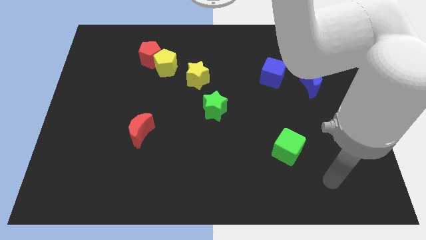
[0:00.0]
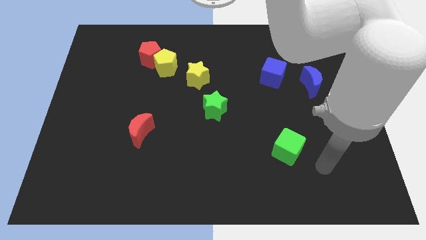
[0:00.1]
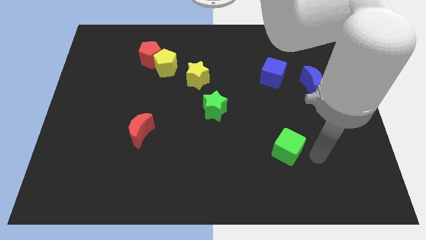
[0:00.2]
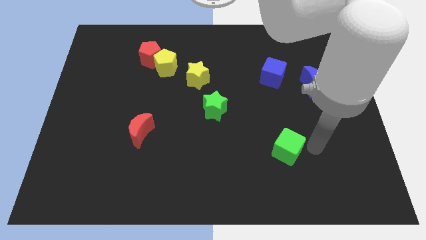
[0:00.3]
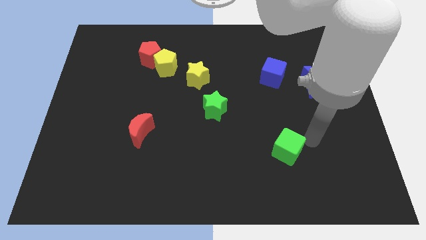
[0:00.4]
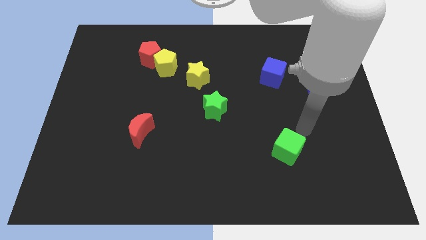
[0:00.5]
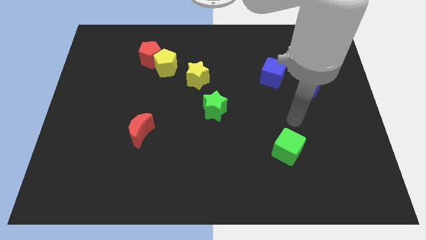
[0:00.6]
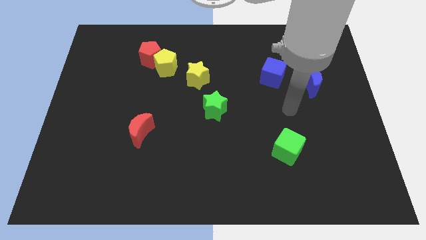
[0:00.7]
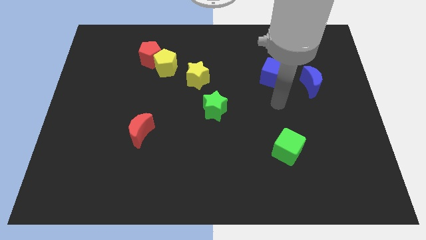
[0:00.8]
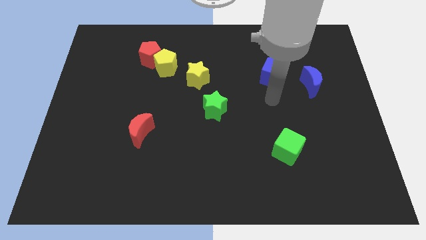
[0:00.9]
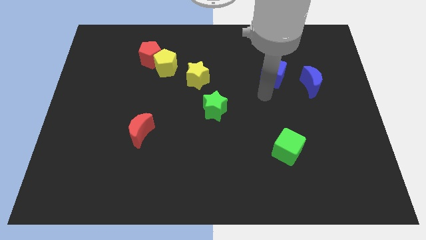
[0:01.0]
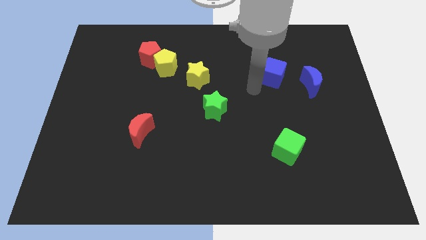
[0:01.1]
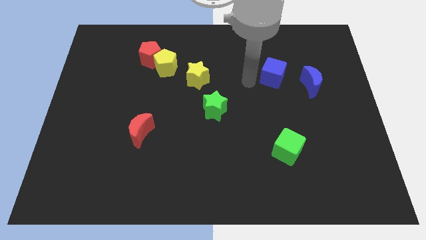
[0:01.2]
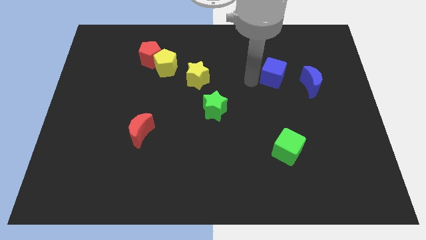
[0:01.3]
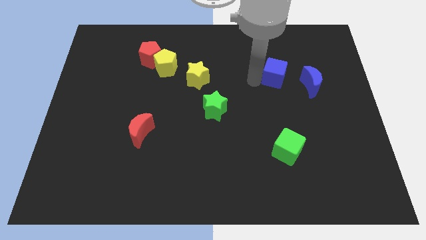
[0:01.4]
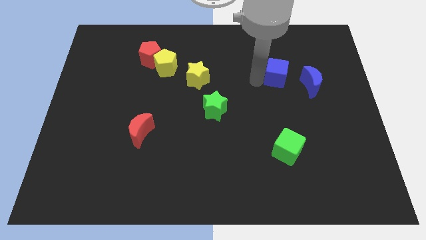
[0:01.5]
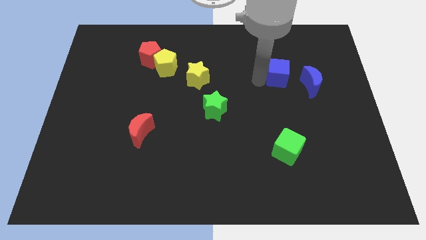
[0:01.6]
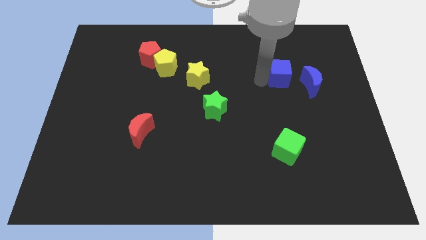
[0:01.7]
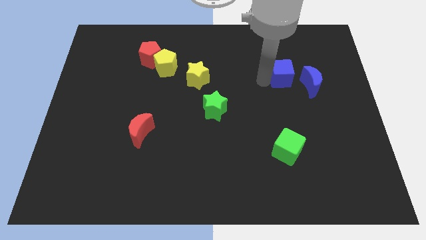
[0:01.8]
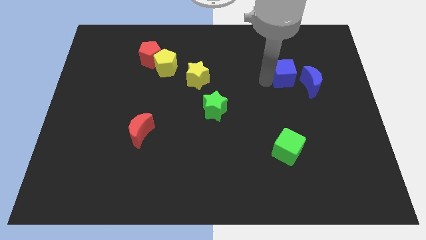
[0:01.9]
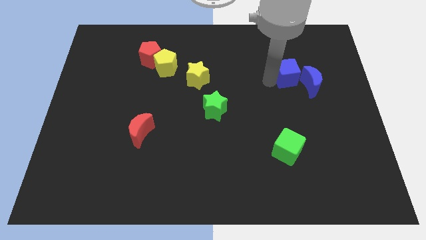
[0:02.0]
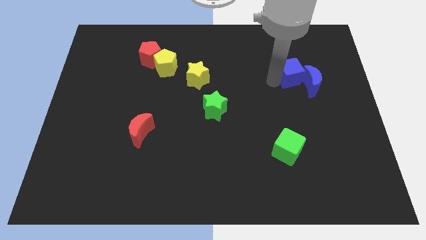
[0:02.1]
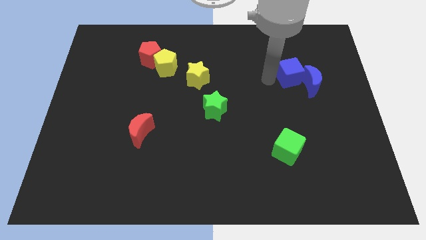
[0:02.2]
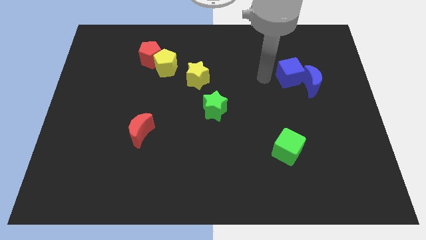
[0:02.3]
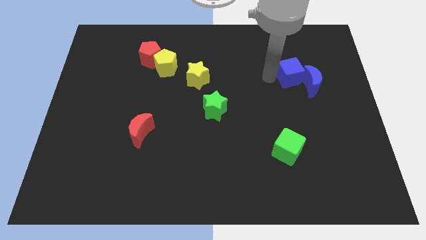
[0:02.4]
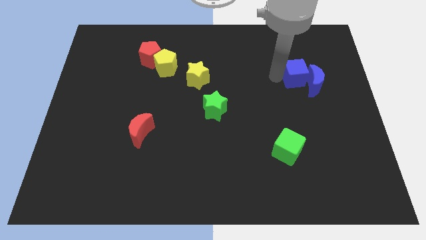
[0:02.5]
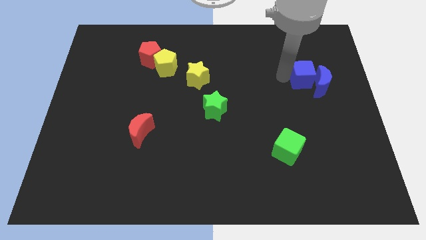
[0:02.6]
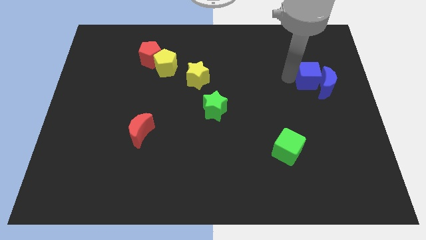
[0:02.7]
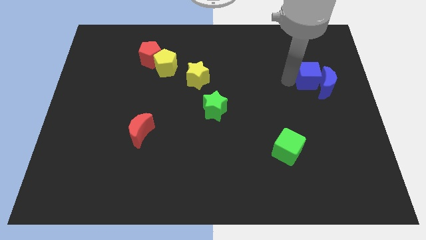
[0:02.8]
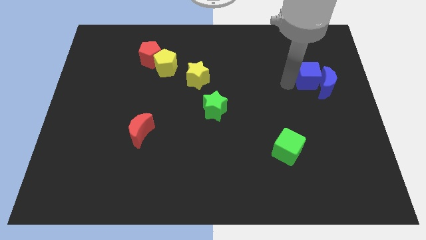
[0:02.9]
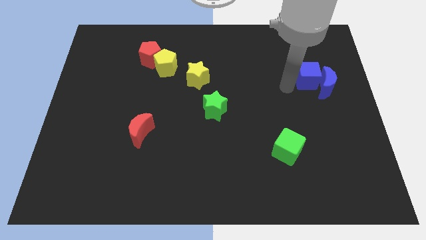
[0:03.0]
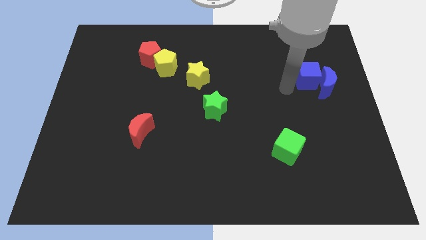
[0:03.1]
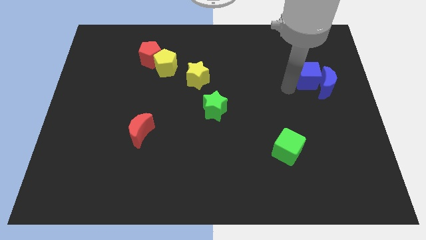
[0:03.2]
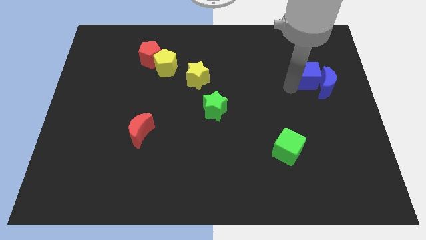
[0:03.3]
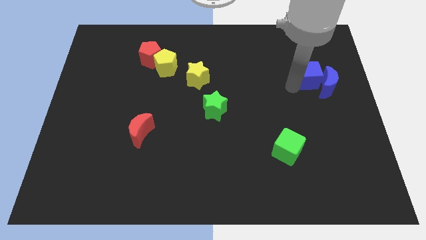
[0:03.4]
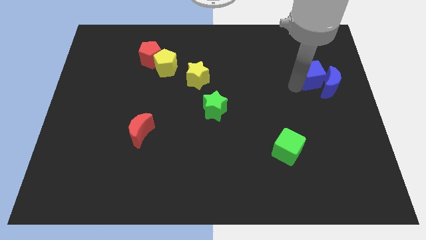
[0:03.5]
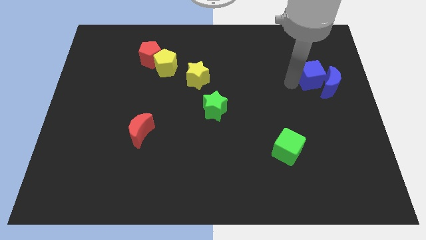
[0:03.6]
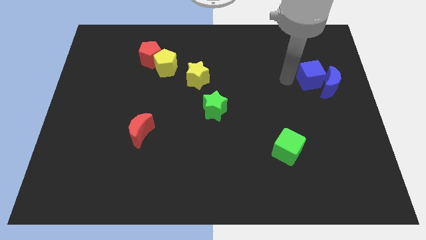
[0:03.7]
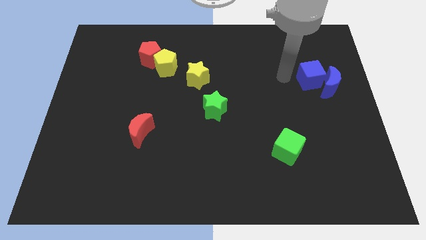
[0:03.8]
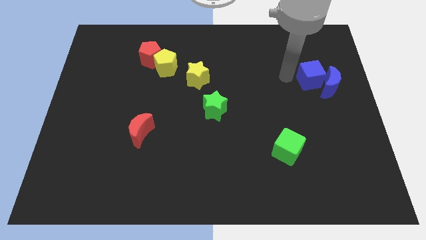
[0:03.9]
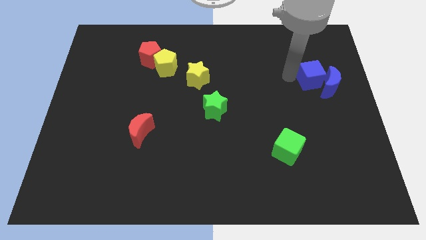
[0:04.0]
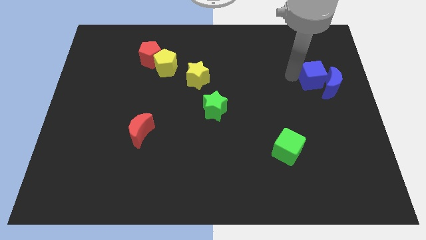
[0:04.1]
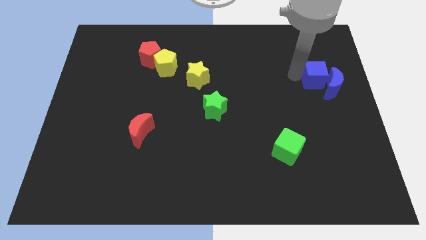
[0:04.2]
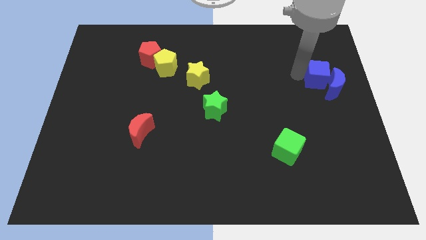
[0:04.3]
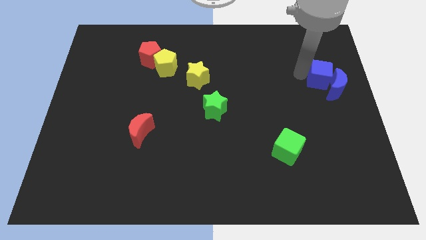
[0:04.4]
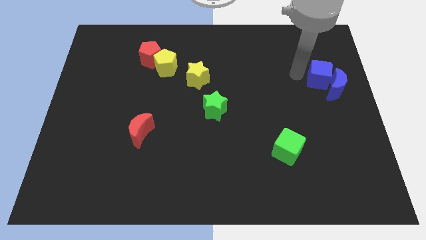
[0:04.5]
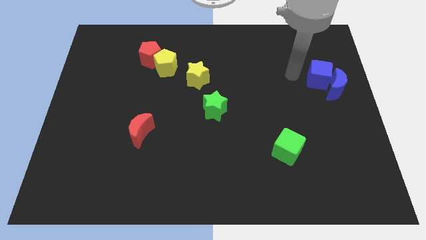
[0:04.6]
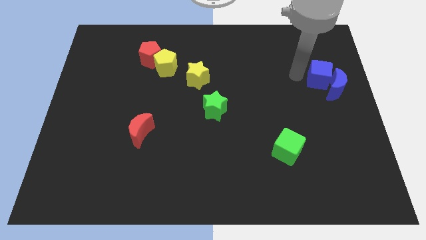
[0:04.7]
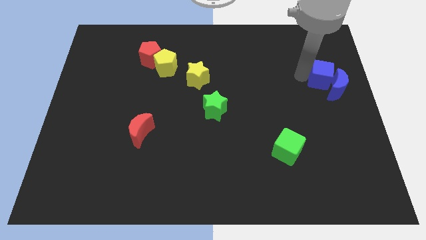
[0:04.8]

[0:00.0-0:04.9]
slide the blue cube to the right side

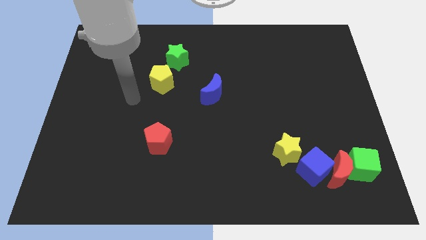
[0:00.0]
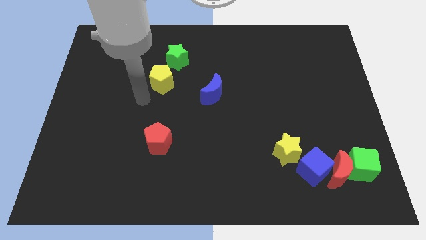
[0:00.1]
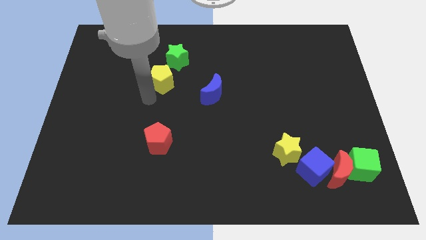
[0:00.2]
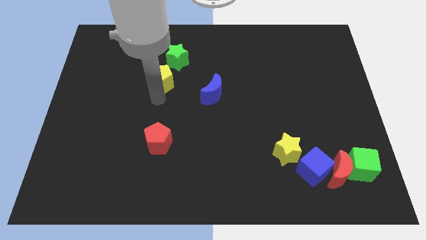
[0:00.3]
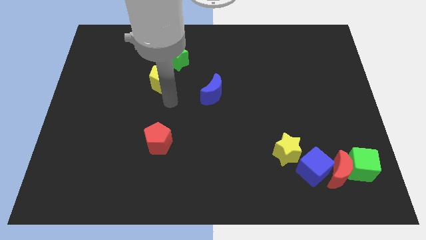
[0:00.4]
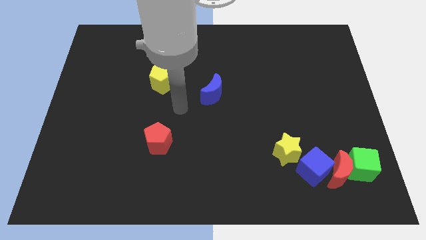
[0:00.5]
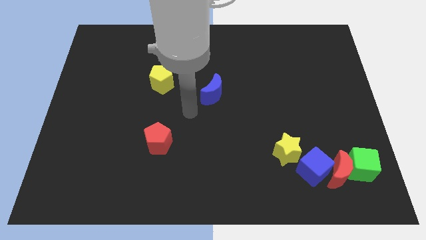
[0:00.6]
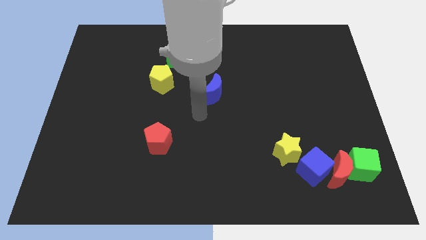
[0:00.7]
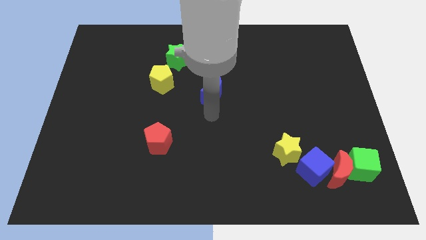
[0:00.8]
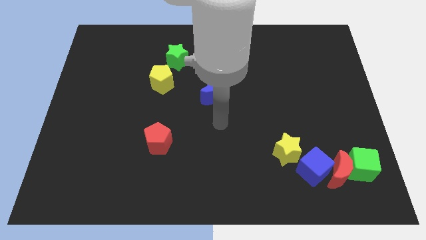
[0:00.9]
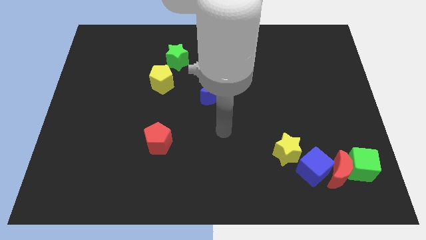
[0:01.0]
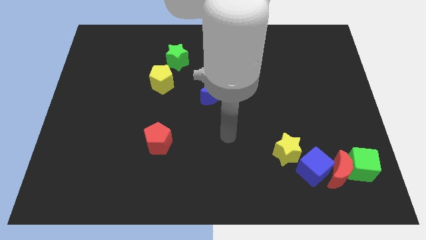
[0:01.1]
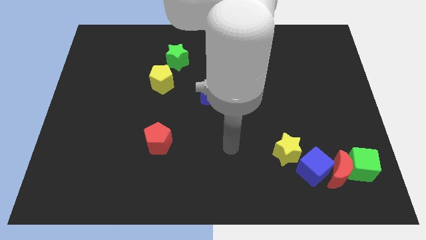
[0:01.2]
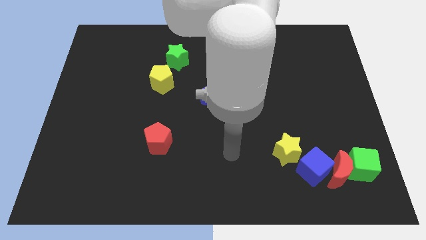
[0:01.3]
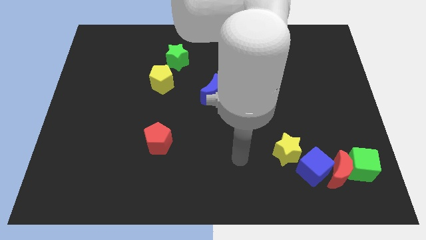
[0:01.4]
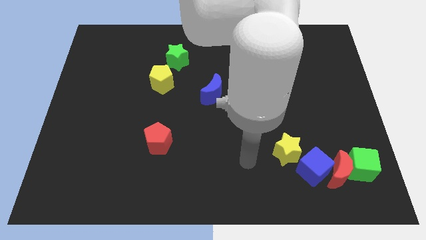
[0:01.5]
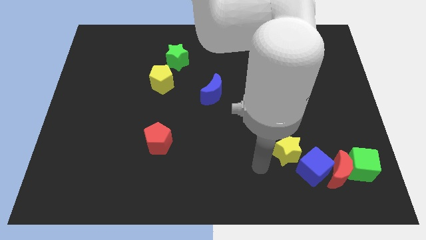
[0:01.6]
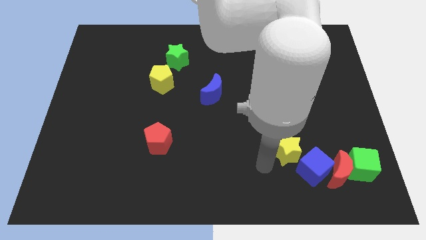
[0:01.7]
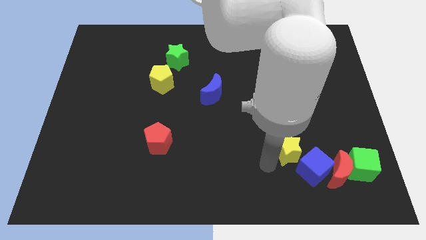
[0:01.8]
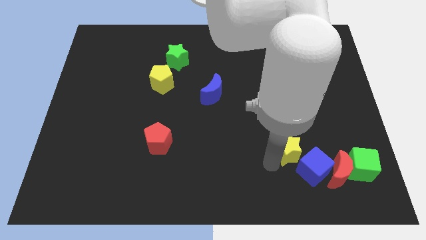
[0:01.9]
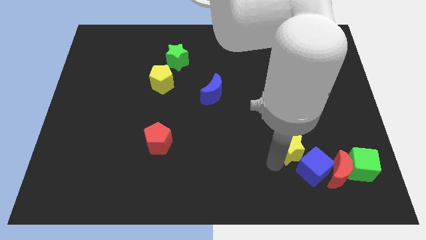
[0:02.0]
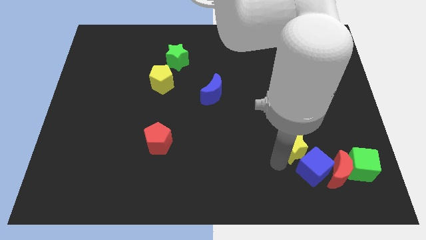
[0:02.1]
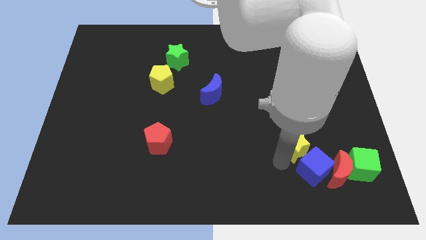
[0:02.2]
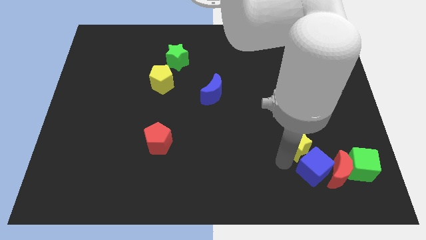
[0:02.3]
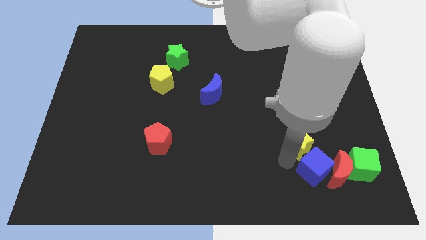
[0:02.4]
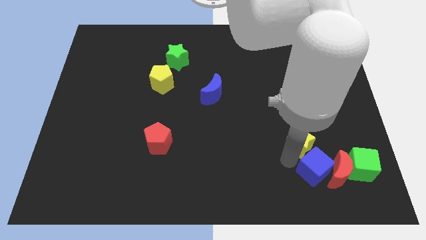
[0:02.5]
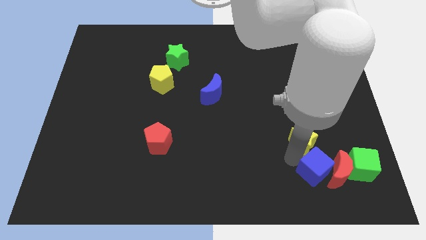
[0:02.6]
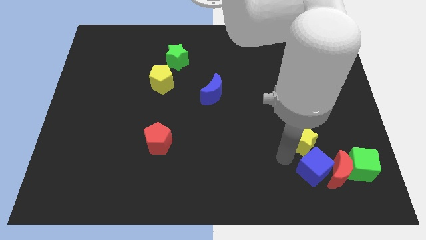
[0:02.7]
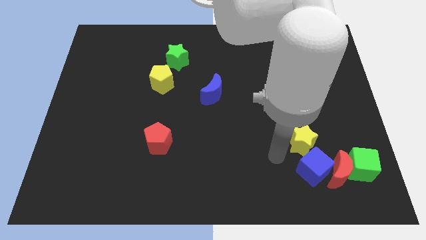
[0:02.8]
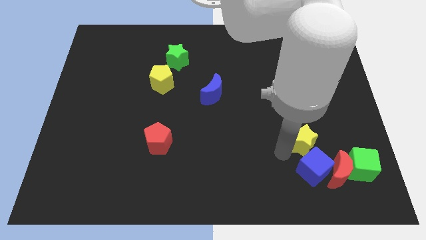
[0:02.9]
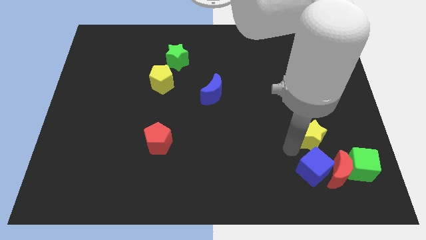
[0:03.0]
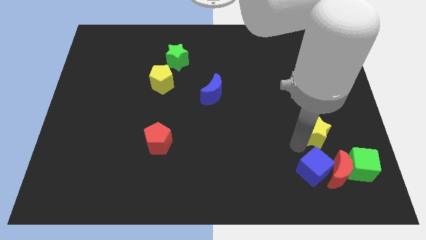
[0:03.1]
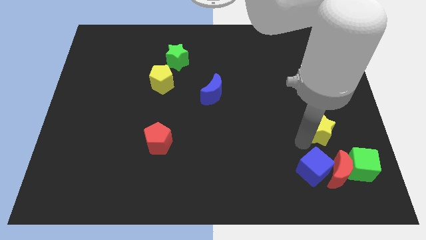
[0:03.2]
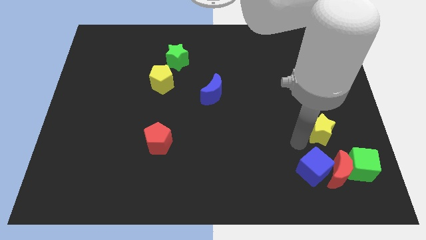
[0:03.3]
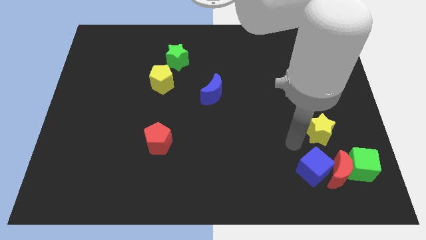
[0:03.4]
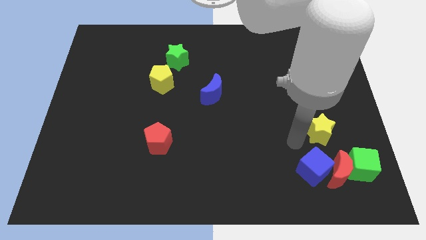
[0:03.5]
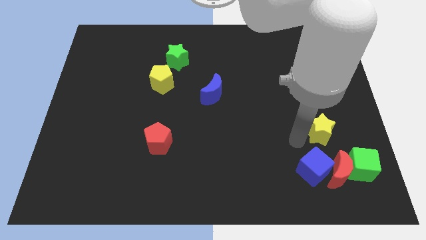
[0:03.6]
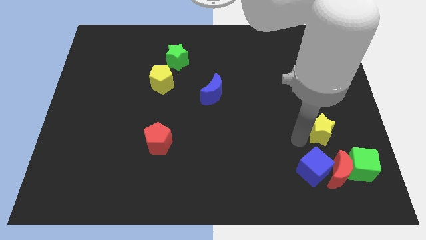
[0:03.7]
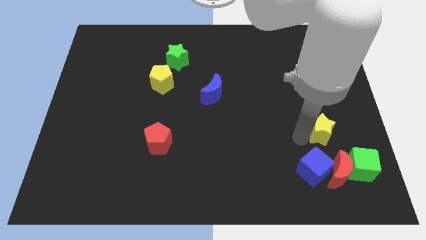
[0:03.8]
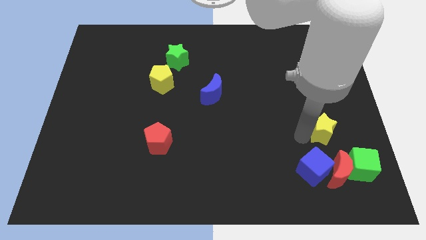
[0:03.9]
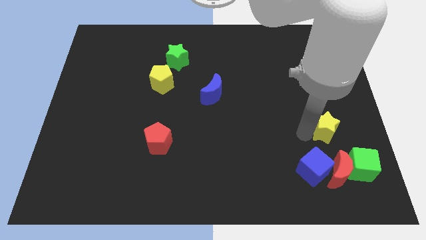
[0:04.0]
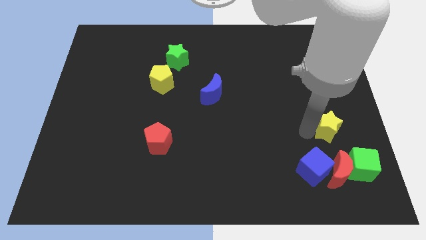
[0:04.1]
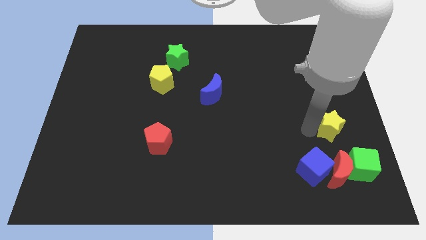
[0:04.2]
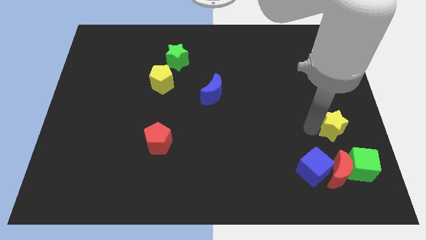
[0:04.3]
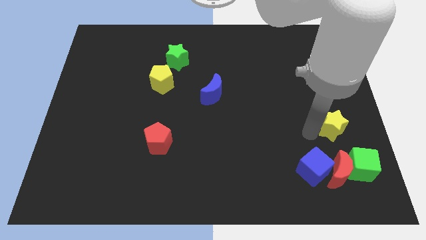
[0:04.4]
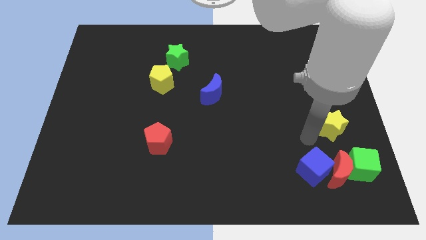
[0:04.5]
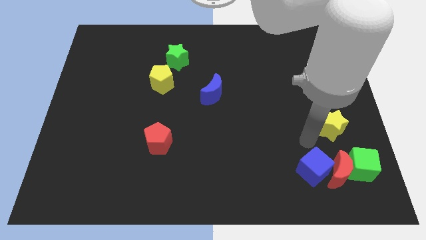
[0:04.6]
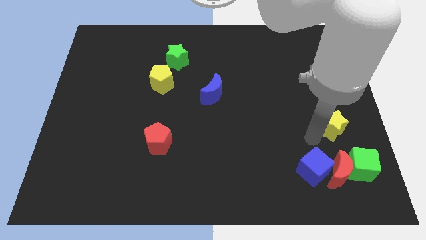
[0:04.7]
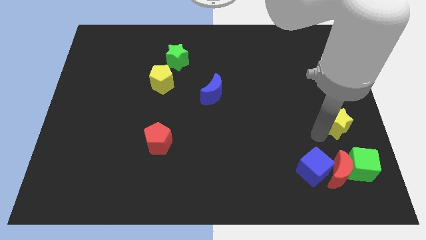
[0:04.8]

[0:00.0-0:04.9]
push the yellow star to the right side
